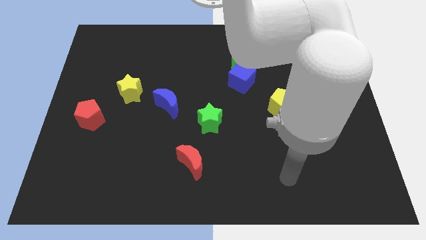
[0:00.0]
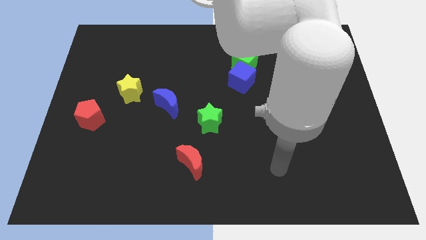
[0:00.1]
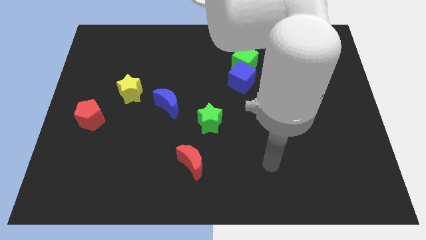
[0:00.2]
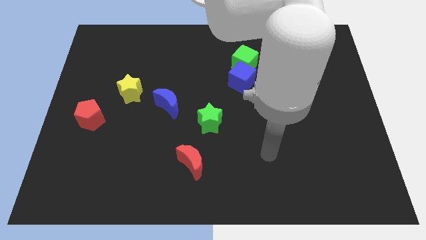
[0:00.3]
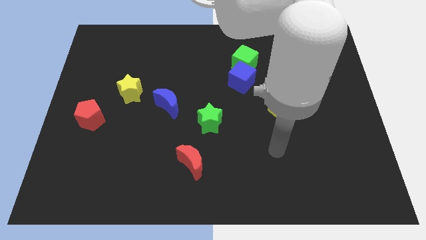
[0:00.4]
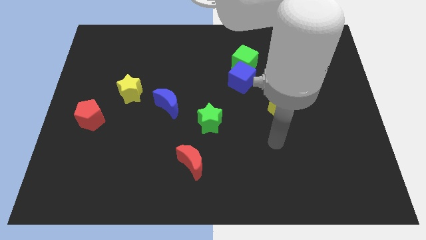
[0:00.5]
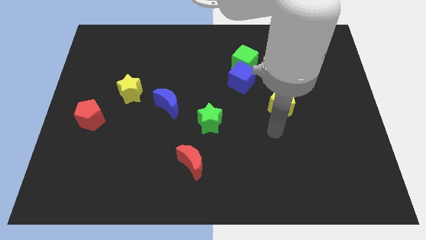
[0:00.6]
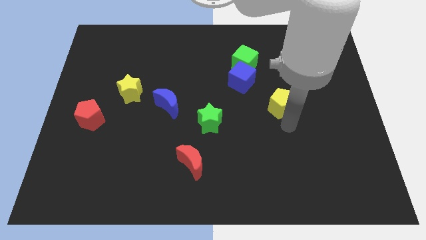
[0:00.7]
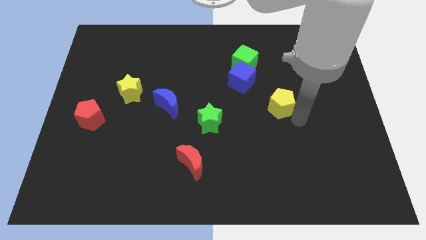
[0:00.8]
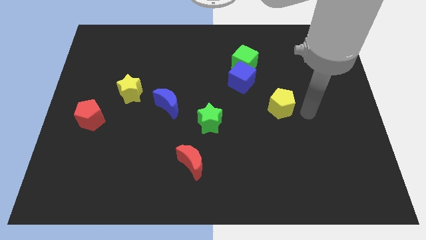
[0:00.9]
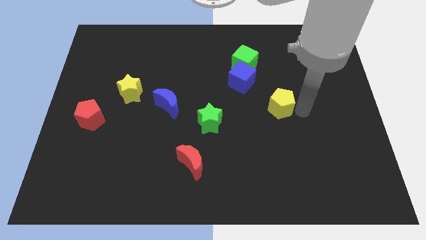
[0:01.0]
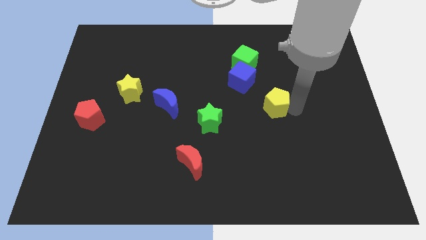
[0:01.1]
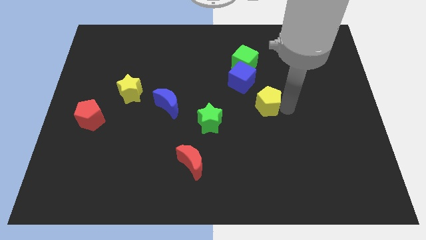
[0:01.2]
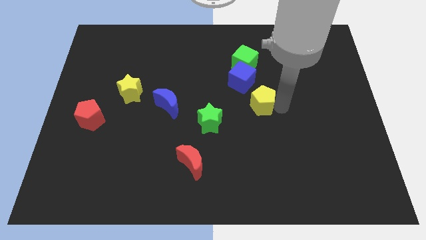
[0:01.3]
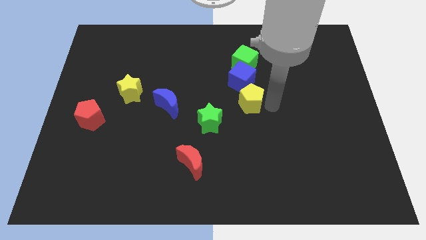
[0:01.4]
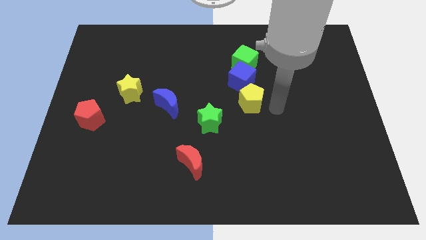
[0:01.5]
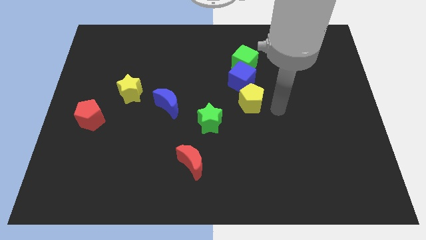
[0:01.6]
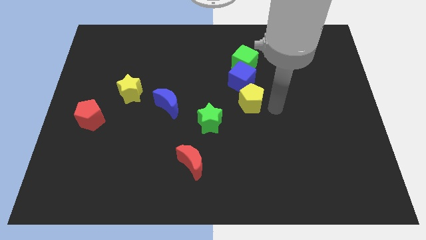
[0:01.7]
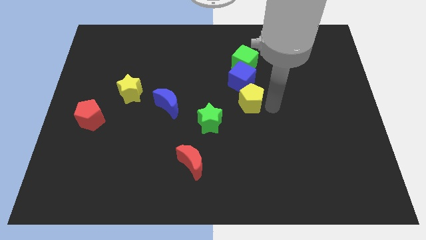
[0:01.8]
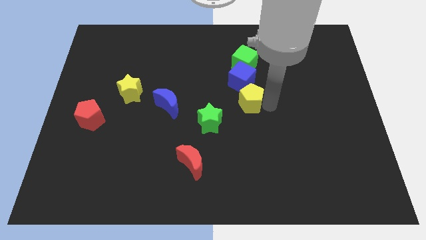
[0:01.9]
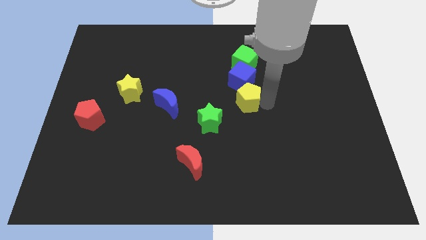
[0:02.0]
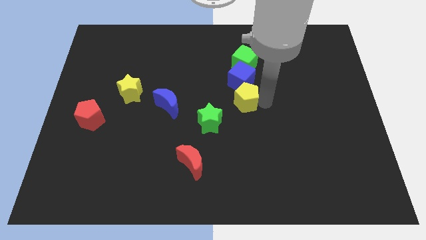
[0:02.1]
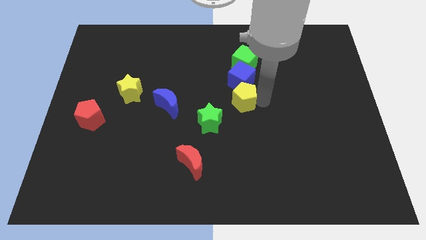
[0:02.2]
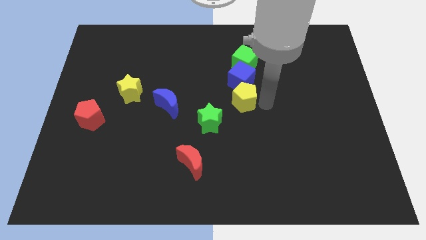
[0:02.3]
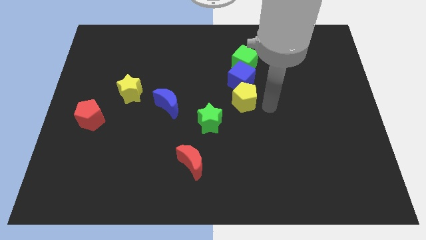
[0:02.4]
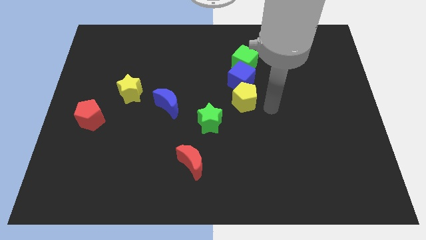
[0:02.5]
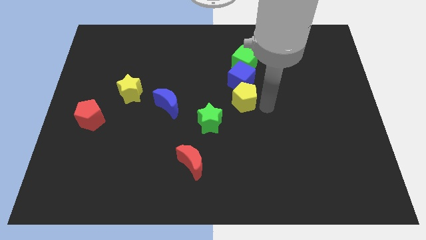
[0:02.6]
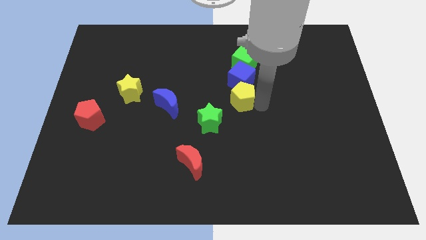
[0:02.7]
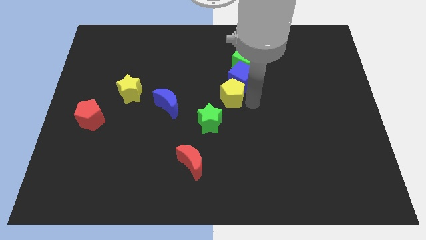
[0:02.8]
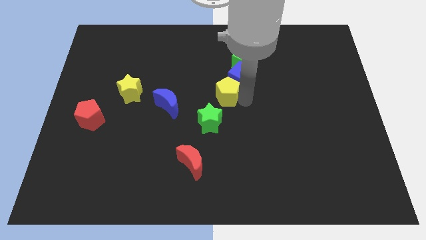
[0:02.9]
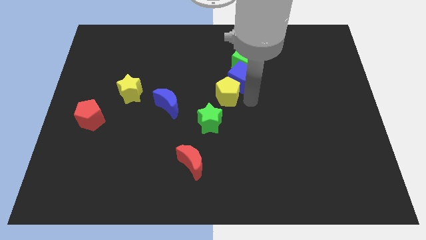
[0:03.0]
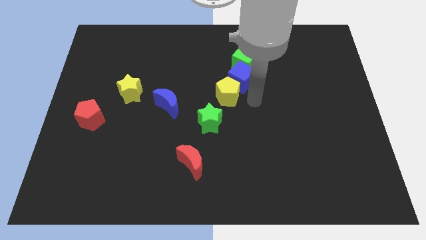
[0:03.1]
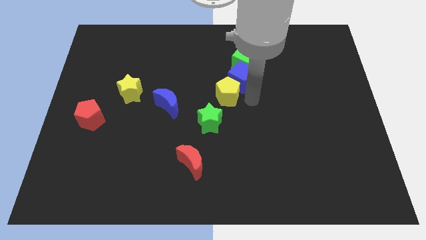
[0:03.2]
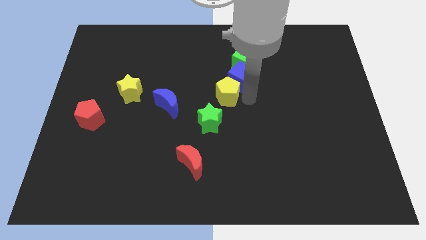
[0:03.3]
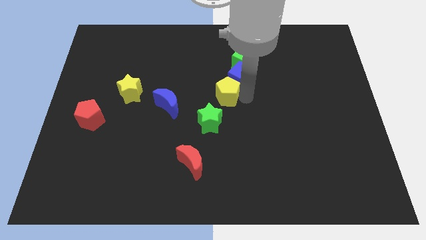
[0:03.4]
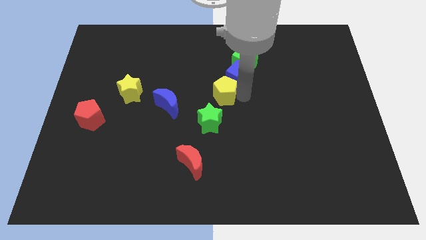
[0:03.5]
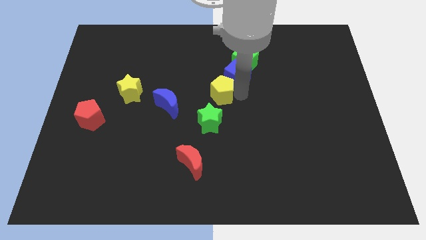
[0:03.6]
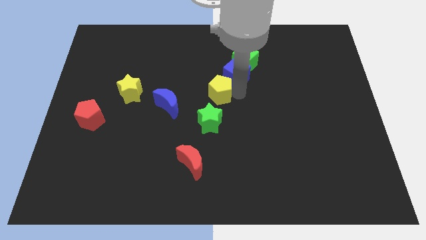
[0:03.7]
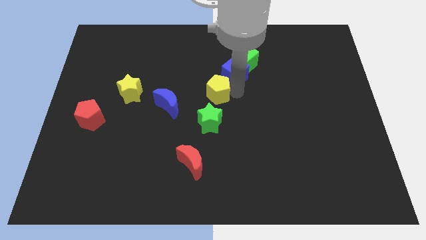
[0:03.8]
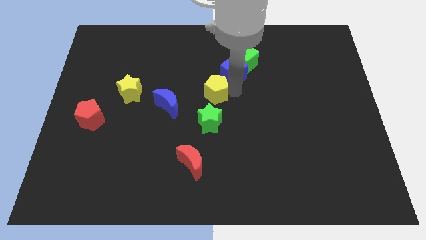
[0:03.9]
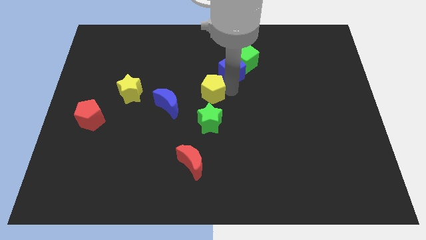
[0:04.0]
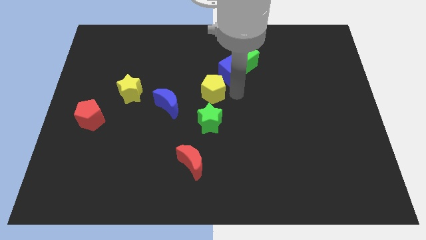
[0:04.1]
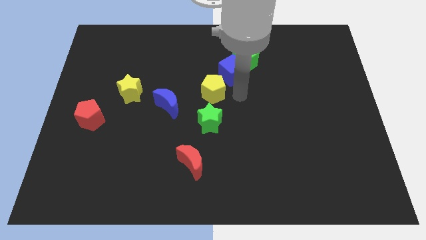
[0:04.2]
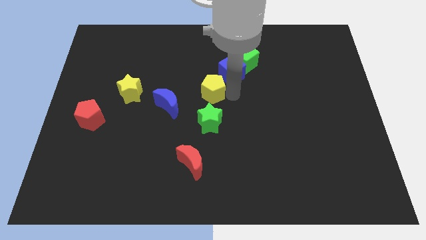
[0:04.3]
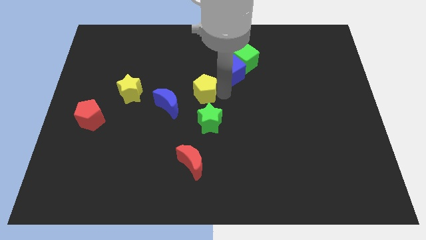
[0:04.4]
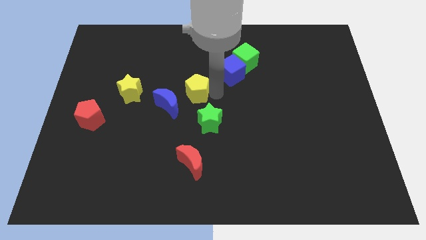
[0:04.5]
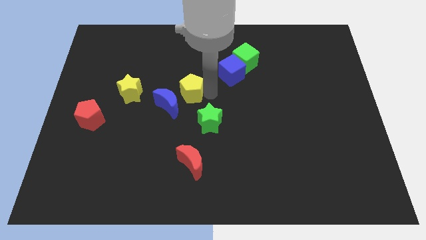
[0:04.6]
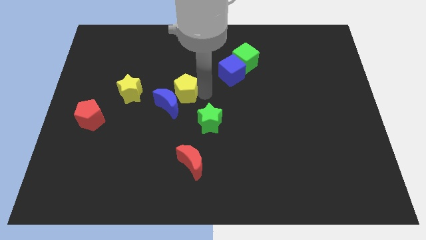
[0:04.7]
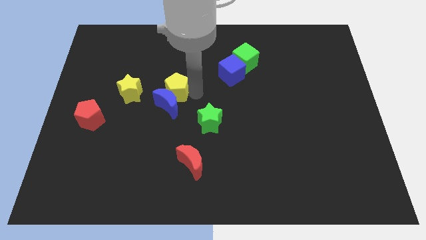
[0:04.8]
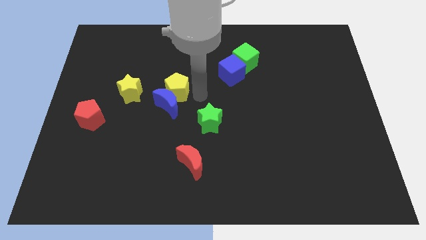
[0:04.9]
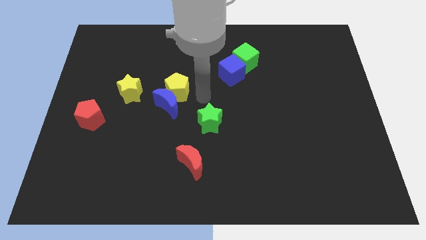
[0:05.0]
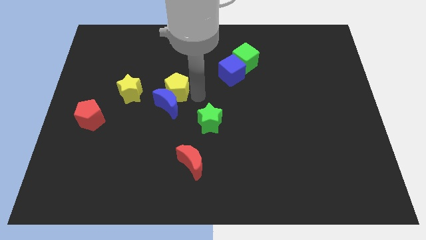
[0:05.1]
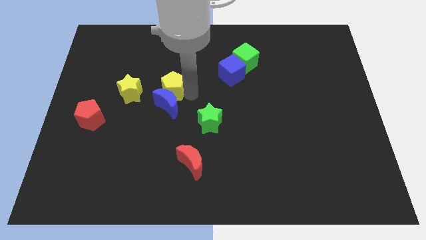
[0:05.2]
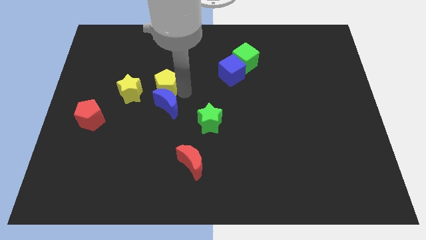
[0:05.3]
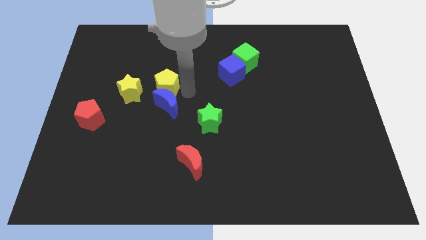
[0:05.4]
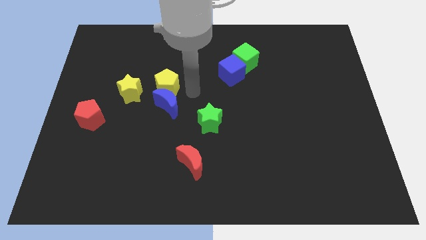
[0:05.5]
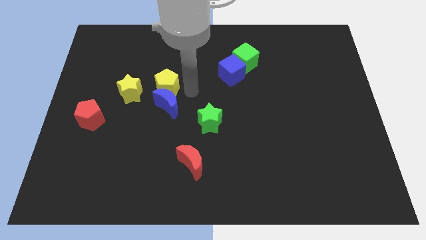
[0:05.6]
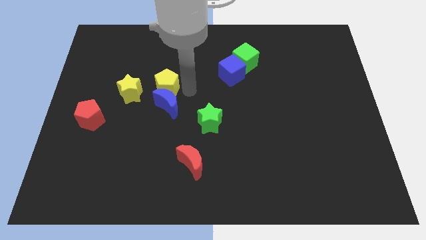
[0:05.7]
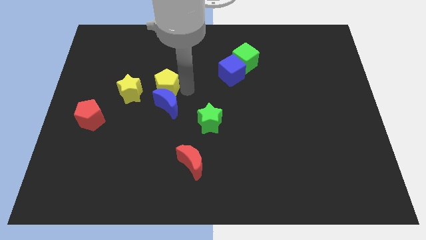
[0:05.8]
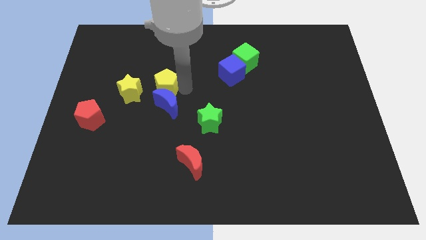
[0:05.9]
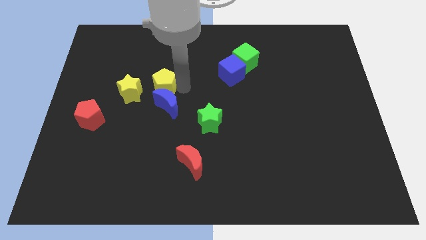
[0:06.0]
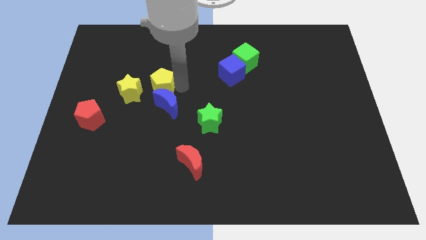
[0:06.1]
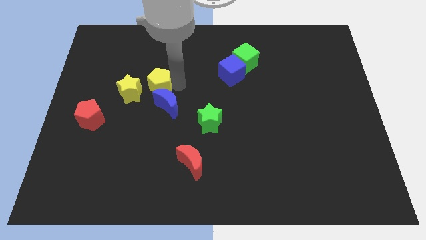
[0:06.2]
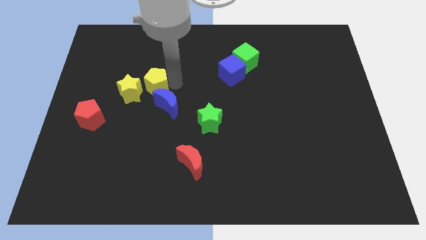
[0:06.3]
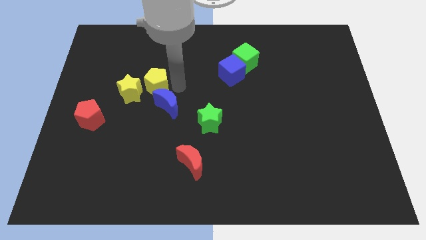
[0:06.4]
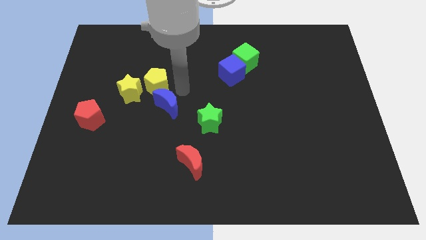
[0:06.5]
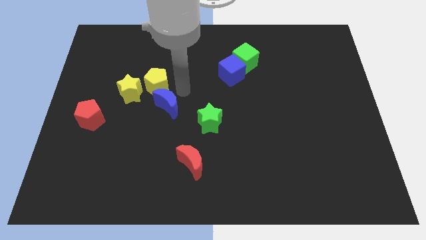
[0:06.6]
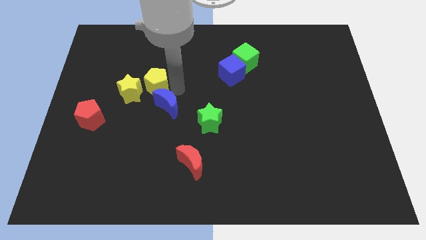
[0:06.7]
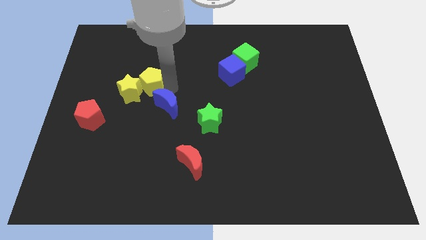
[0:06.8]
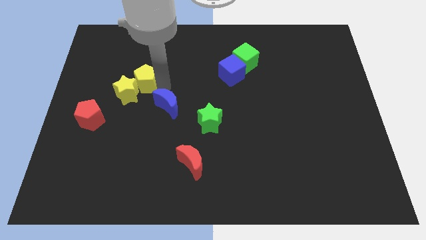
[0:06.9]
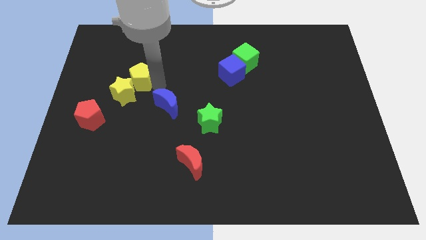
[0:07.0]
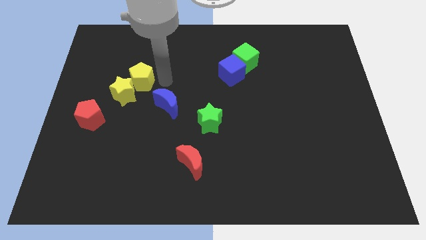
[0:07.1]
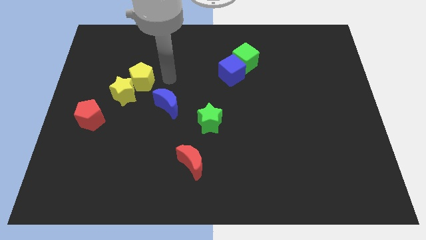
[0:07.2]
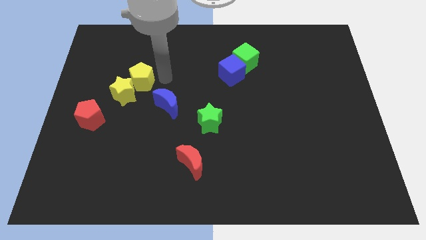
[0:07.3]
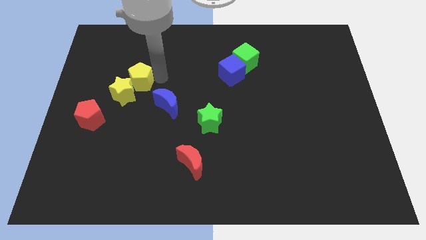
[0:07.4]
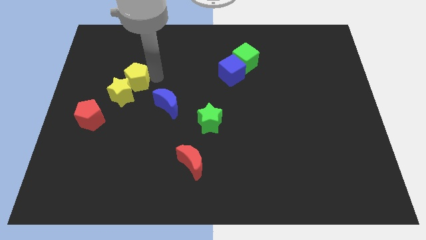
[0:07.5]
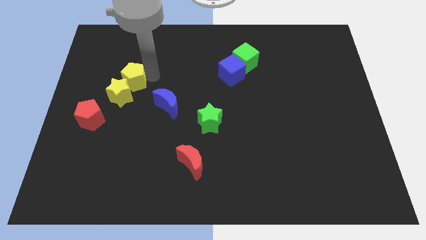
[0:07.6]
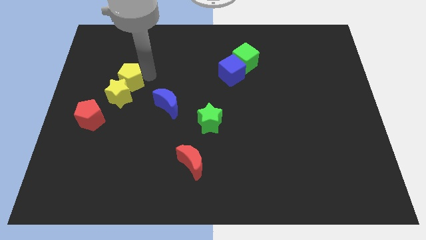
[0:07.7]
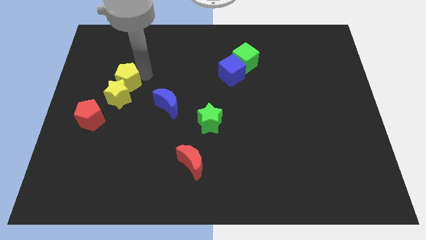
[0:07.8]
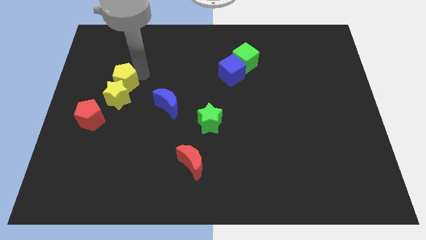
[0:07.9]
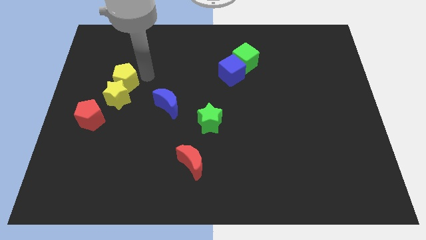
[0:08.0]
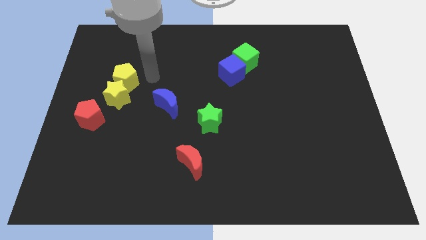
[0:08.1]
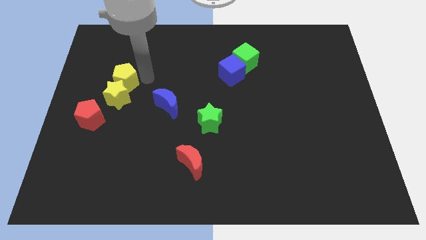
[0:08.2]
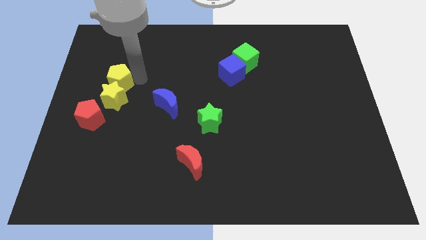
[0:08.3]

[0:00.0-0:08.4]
push the yellow pentagon above the red pentagon
